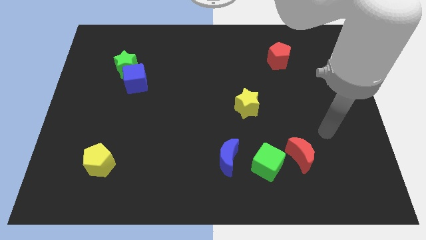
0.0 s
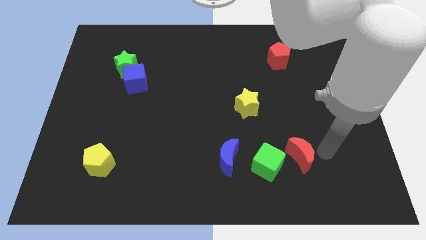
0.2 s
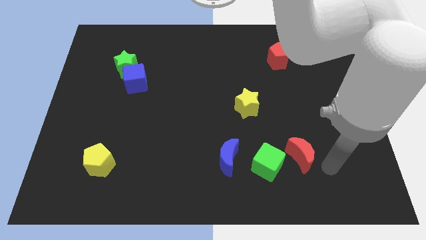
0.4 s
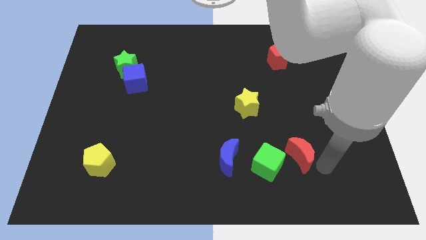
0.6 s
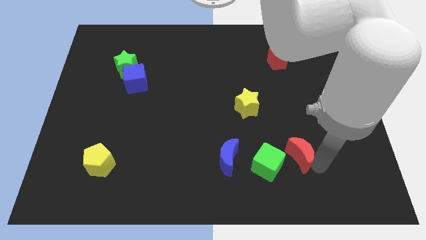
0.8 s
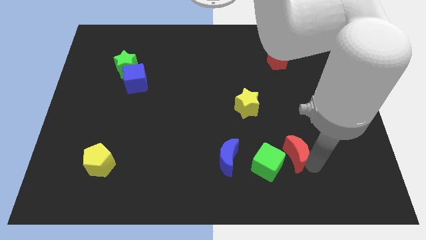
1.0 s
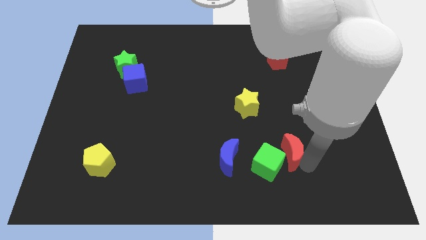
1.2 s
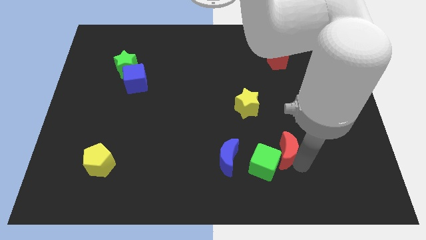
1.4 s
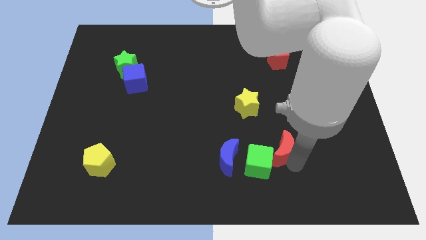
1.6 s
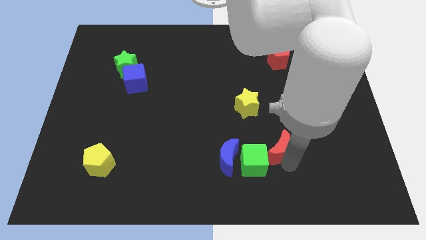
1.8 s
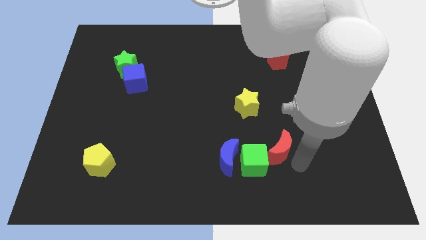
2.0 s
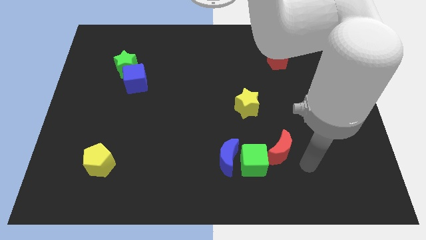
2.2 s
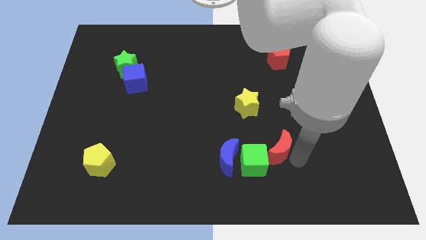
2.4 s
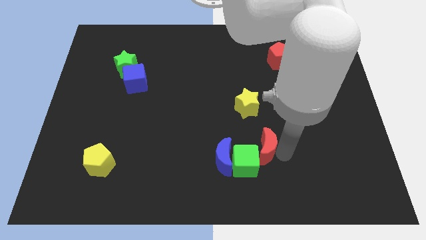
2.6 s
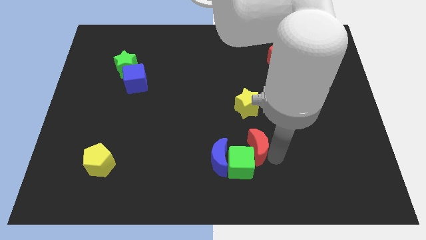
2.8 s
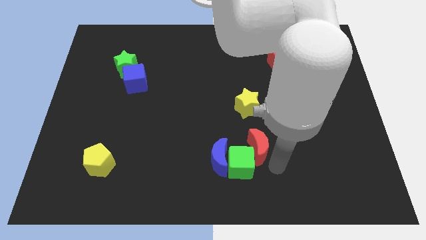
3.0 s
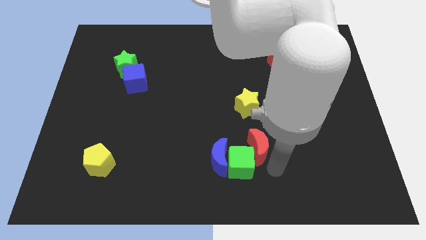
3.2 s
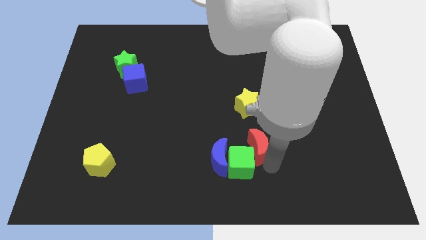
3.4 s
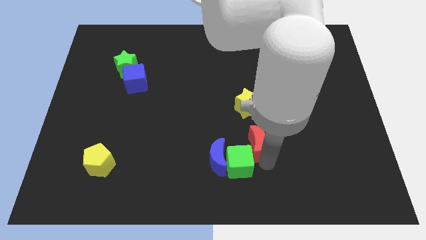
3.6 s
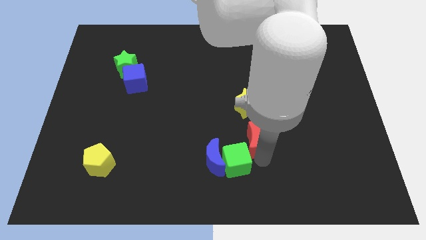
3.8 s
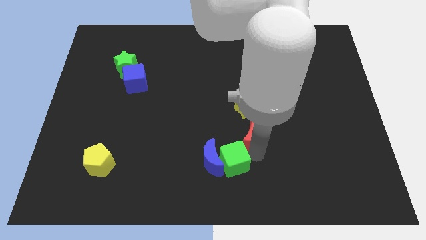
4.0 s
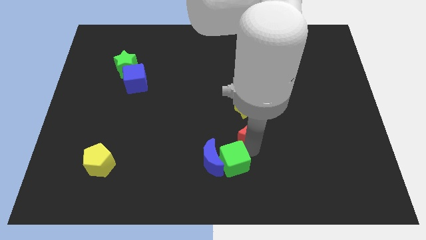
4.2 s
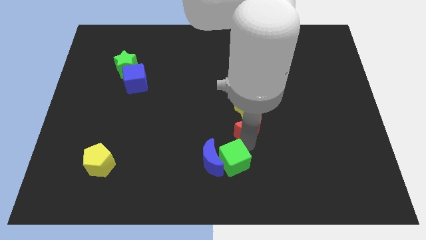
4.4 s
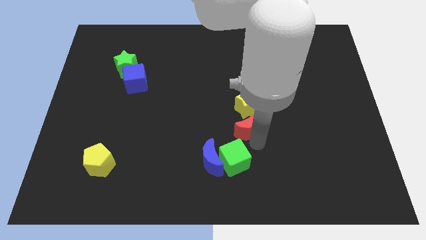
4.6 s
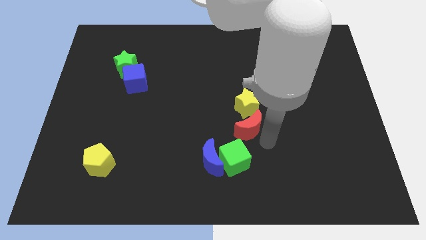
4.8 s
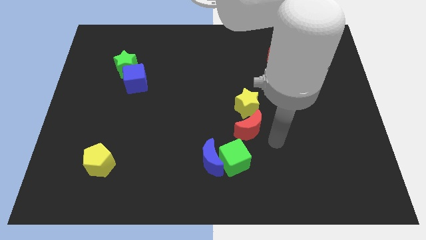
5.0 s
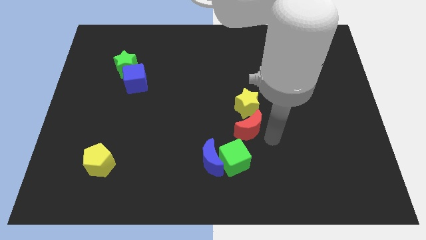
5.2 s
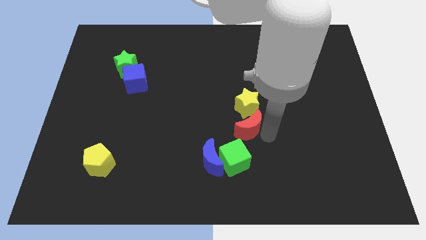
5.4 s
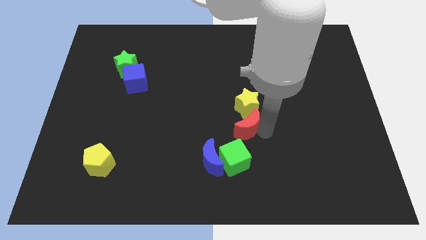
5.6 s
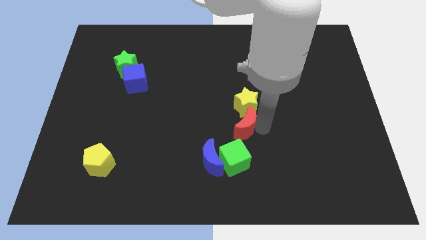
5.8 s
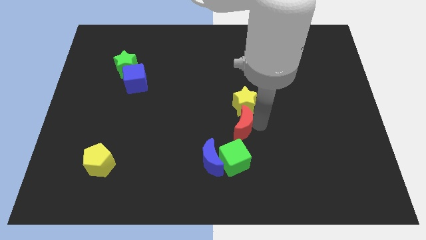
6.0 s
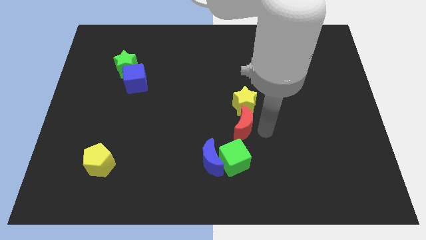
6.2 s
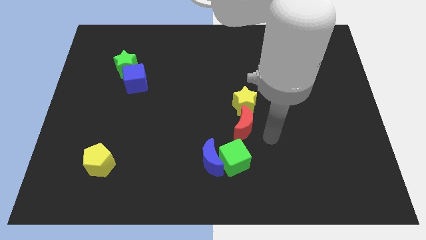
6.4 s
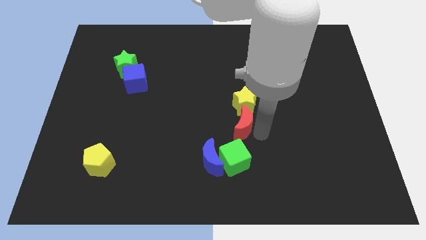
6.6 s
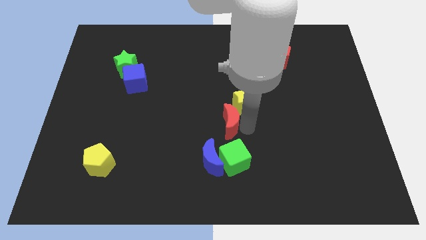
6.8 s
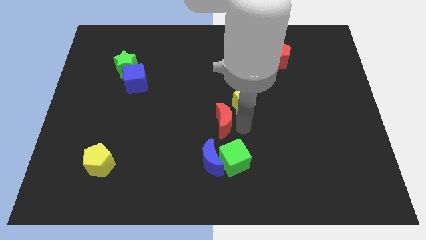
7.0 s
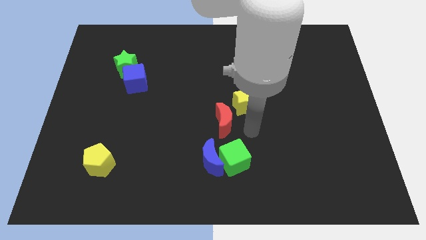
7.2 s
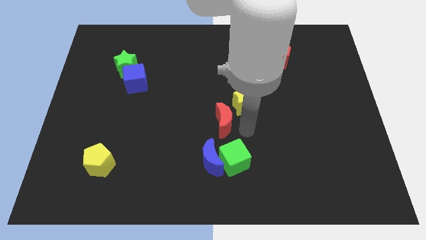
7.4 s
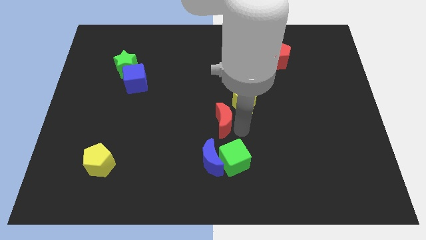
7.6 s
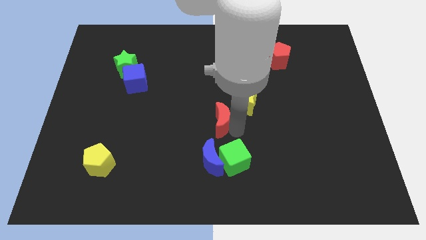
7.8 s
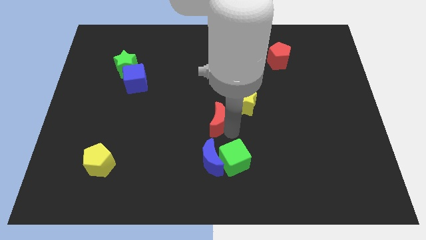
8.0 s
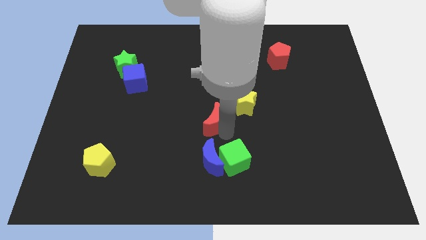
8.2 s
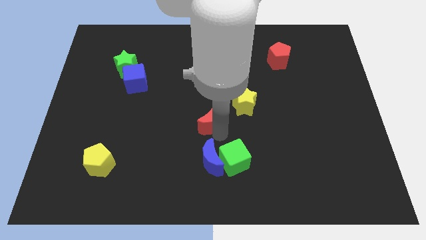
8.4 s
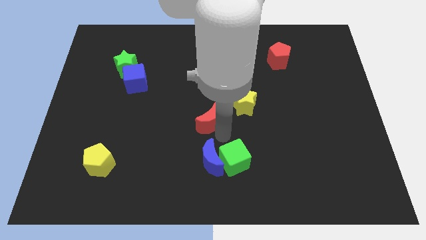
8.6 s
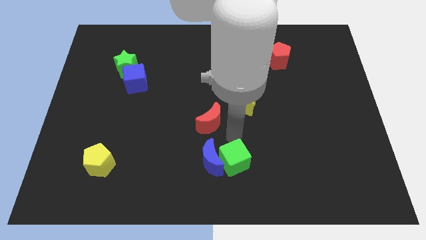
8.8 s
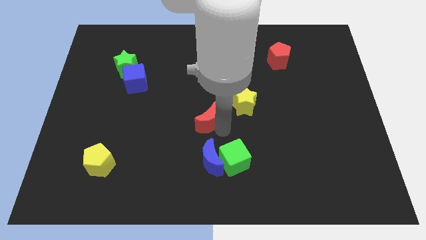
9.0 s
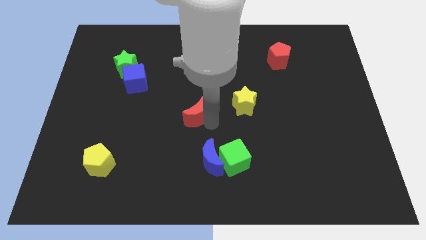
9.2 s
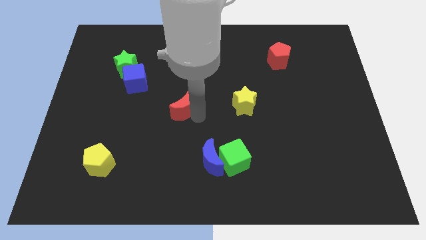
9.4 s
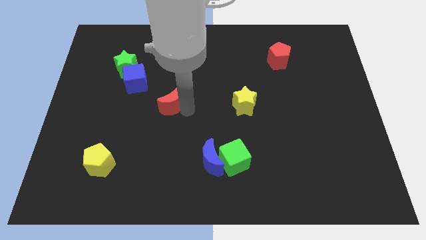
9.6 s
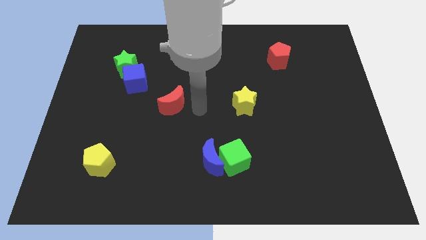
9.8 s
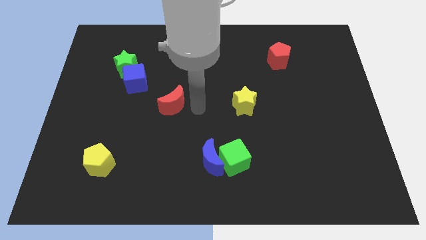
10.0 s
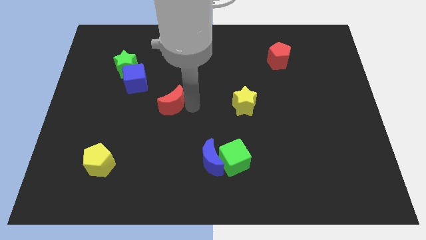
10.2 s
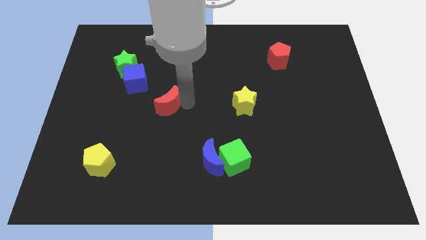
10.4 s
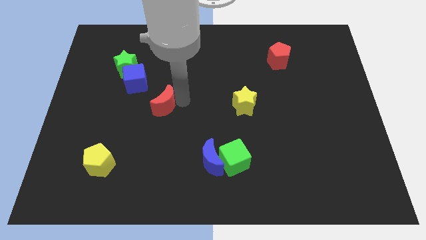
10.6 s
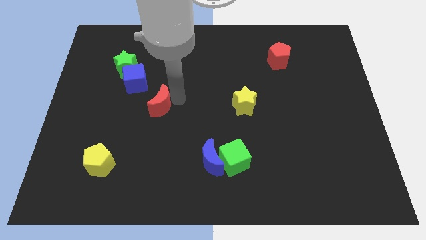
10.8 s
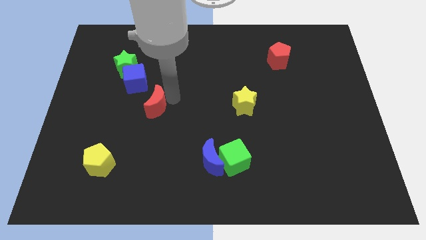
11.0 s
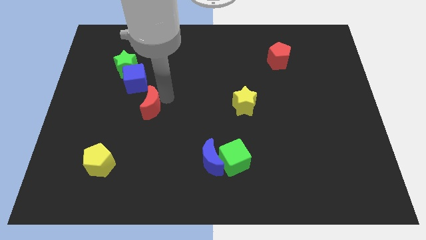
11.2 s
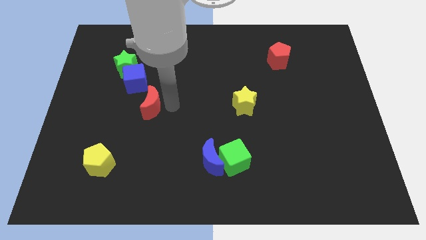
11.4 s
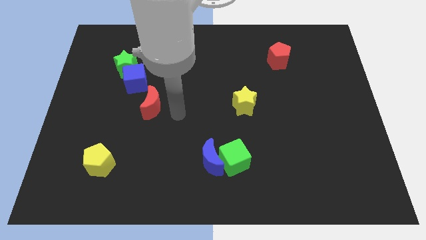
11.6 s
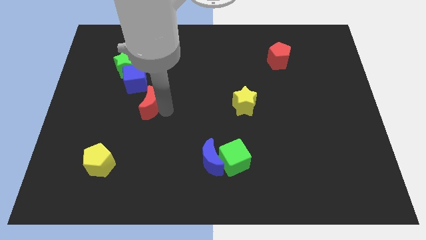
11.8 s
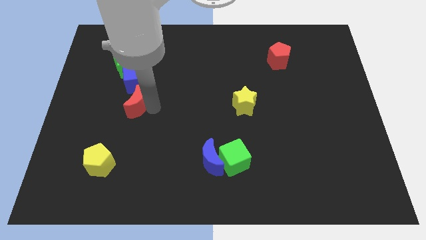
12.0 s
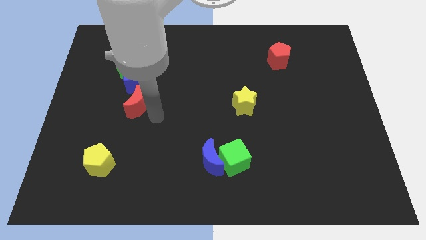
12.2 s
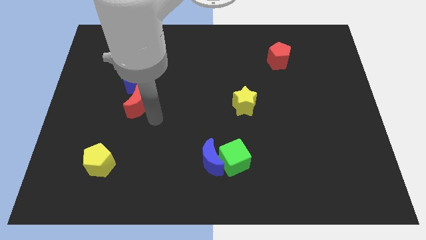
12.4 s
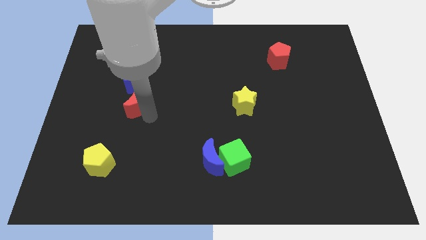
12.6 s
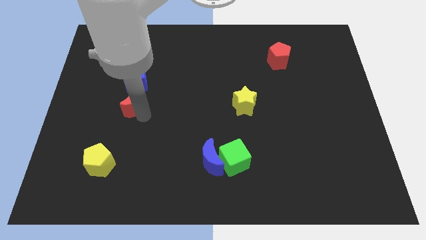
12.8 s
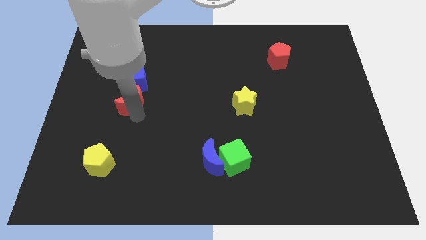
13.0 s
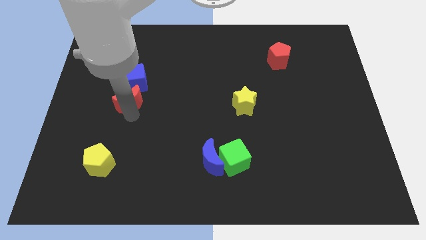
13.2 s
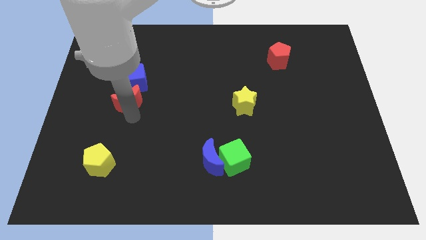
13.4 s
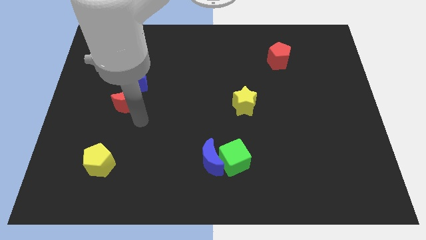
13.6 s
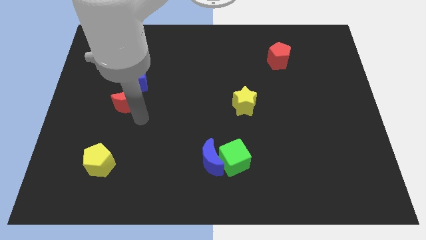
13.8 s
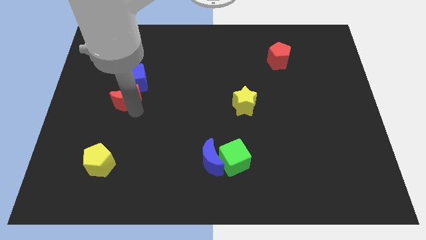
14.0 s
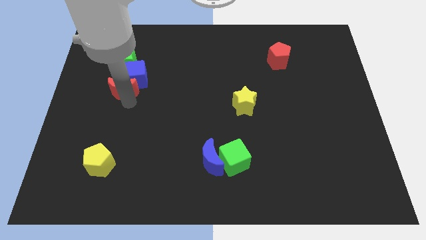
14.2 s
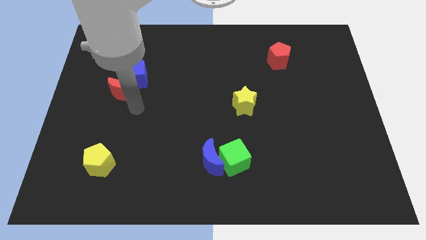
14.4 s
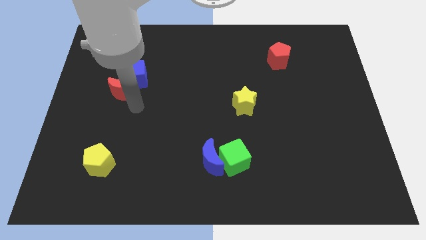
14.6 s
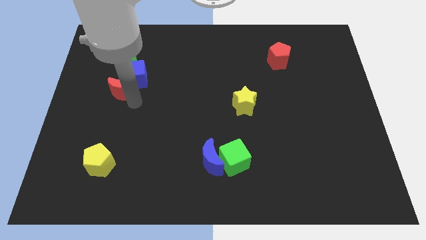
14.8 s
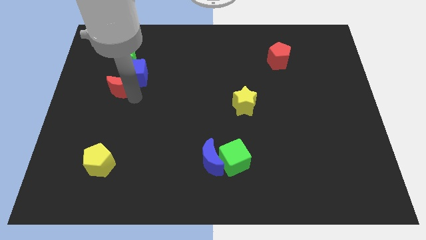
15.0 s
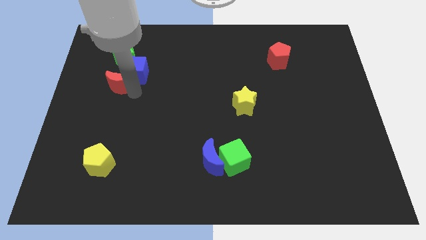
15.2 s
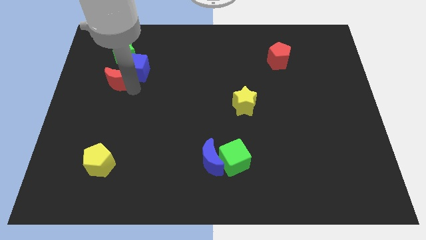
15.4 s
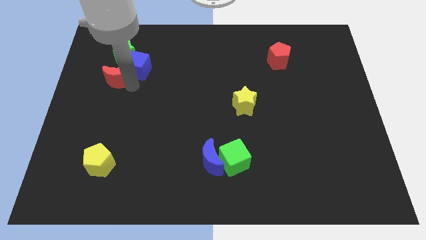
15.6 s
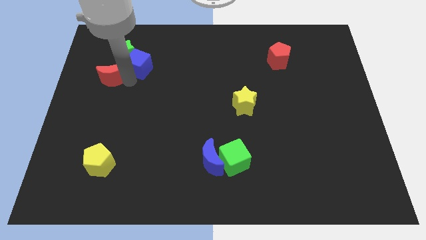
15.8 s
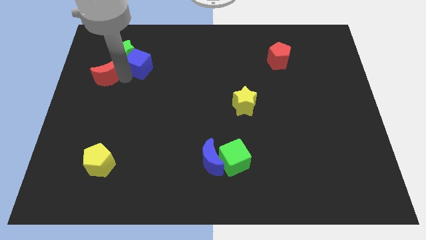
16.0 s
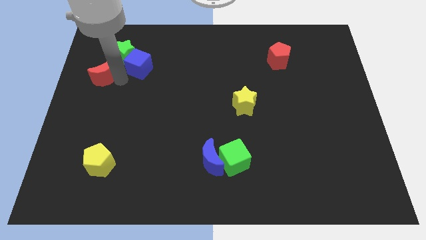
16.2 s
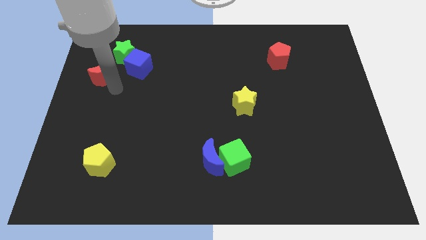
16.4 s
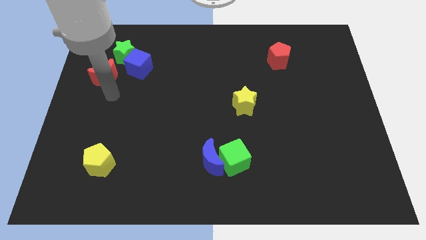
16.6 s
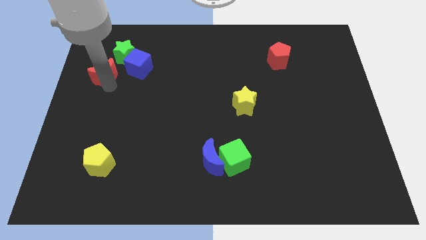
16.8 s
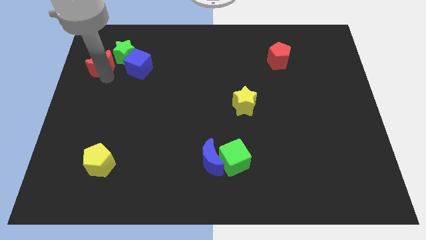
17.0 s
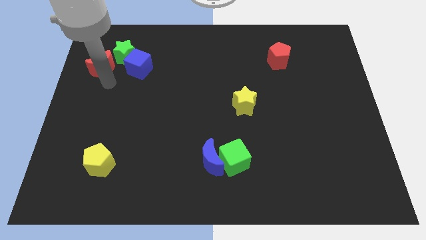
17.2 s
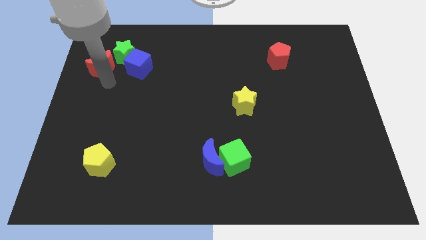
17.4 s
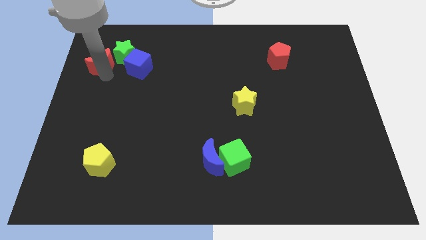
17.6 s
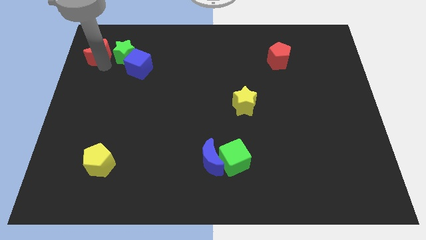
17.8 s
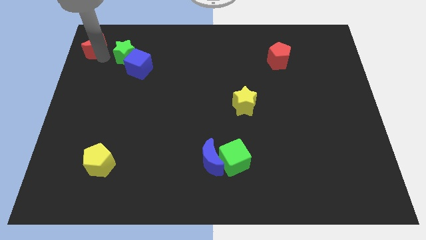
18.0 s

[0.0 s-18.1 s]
slide the red moon to the upper left corner
